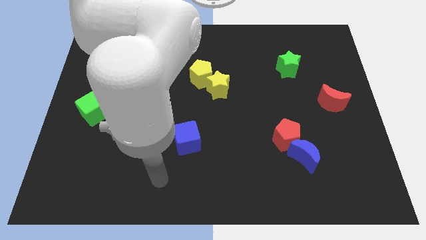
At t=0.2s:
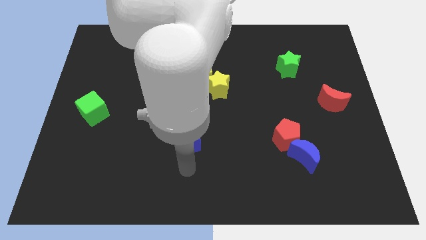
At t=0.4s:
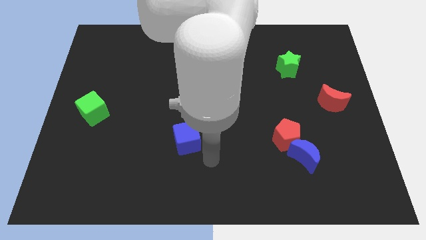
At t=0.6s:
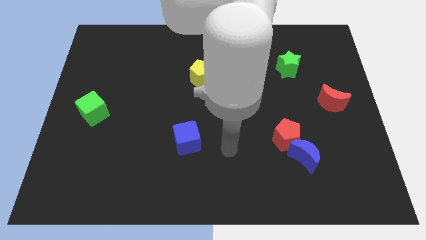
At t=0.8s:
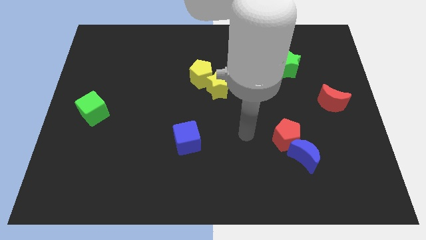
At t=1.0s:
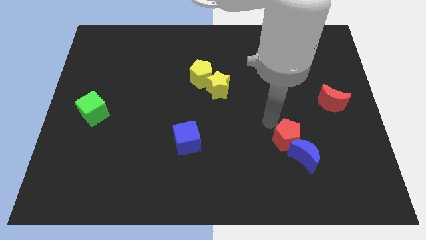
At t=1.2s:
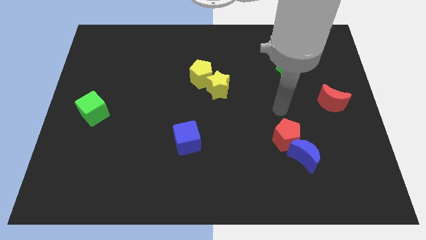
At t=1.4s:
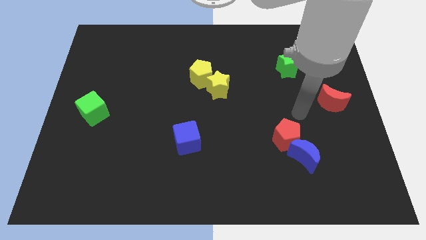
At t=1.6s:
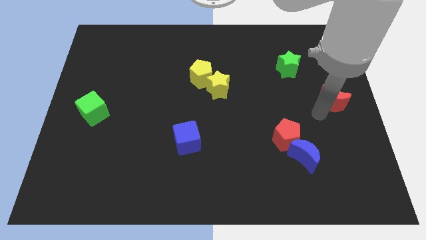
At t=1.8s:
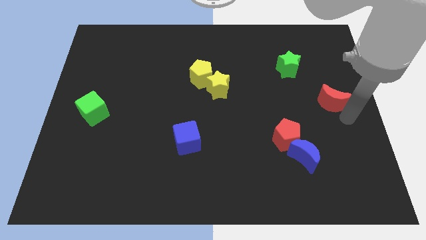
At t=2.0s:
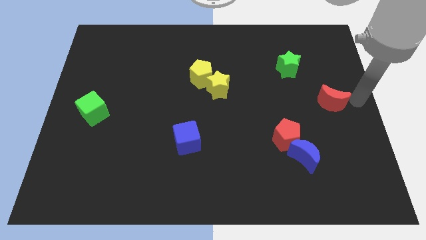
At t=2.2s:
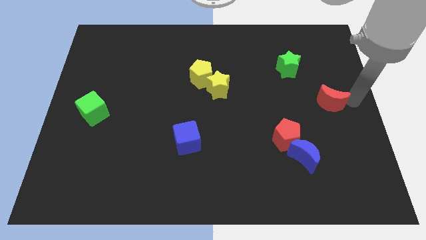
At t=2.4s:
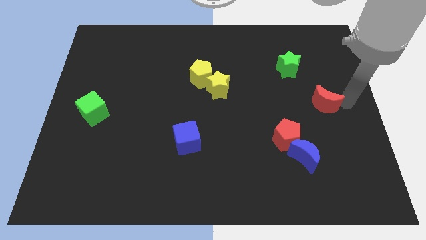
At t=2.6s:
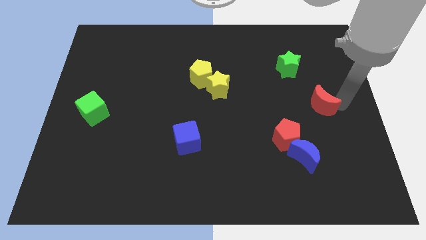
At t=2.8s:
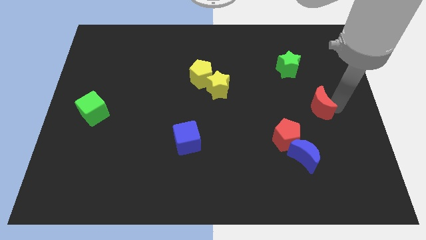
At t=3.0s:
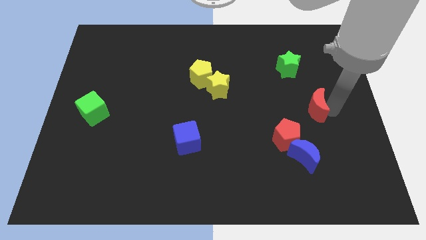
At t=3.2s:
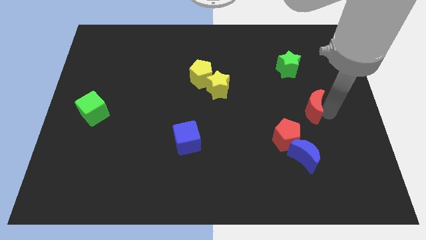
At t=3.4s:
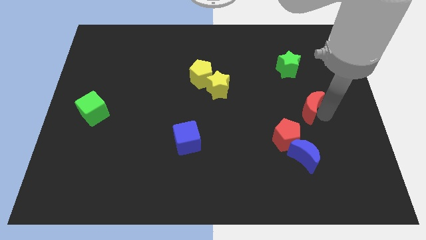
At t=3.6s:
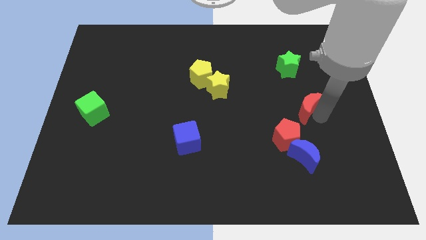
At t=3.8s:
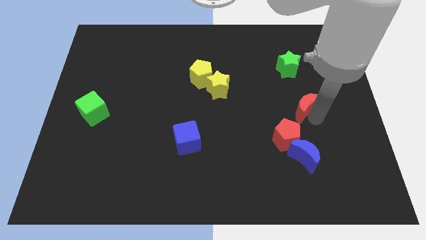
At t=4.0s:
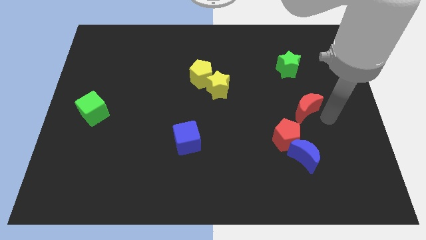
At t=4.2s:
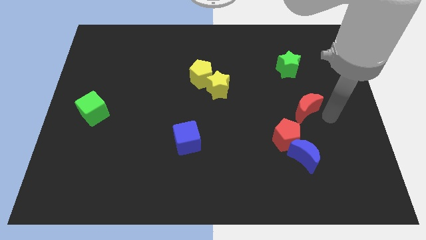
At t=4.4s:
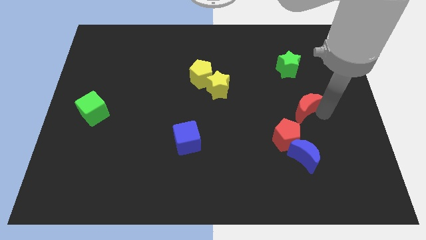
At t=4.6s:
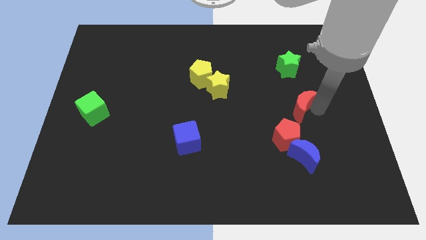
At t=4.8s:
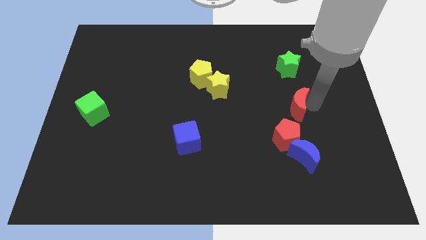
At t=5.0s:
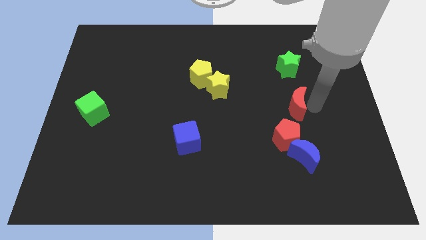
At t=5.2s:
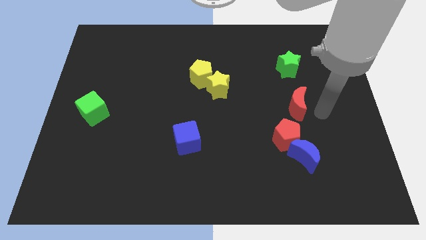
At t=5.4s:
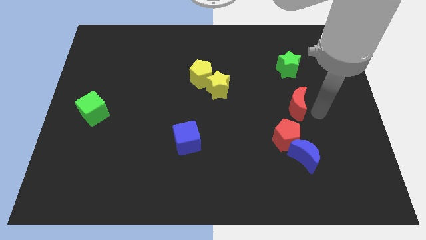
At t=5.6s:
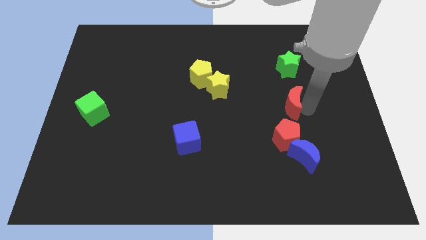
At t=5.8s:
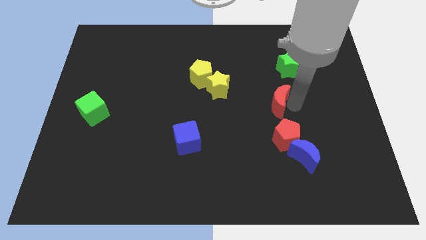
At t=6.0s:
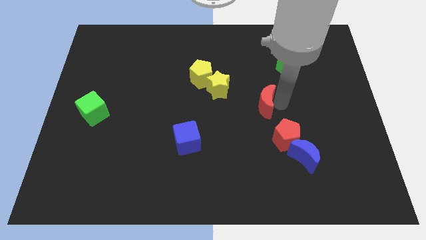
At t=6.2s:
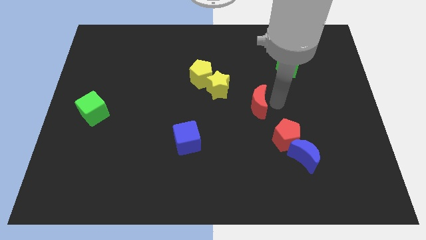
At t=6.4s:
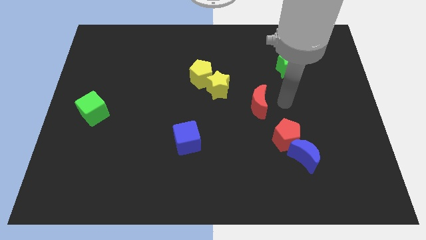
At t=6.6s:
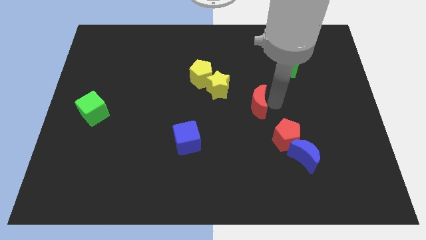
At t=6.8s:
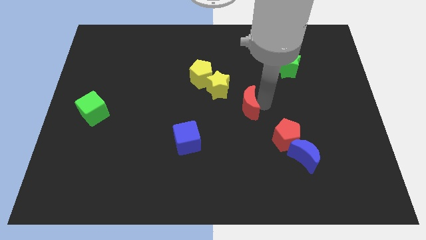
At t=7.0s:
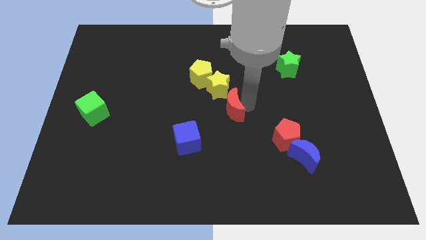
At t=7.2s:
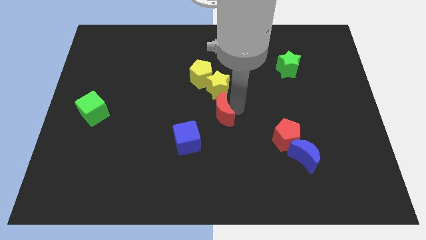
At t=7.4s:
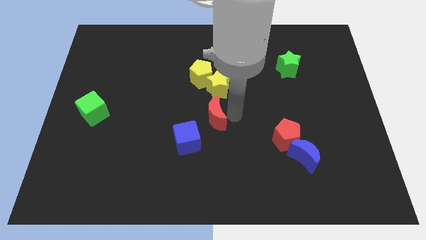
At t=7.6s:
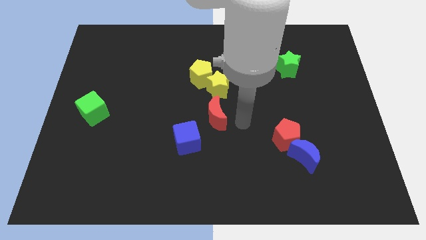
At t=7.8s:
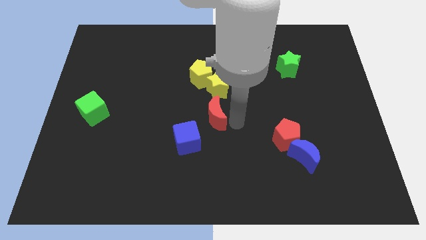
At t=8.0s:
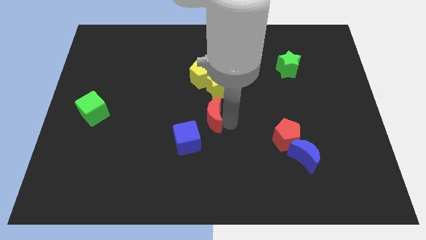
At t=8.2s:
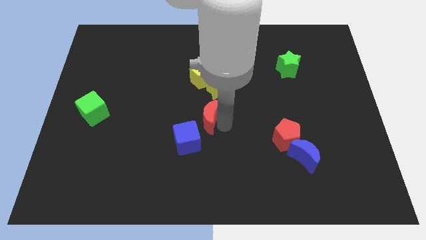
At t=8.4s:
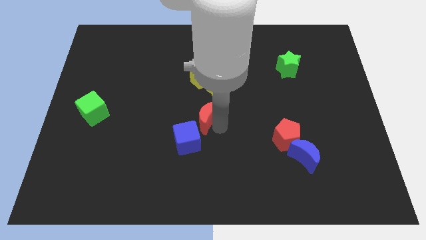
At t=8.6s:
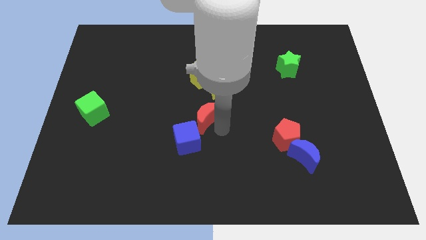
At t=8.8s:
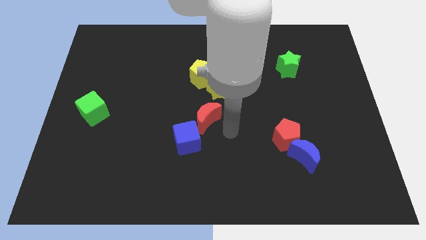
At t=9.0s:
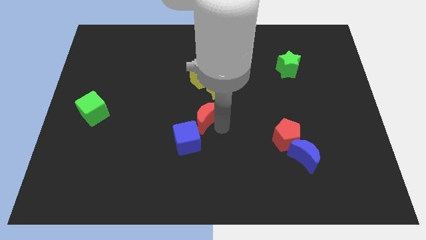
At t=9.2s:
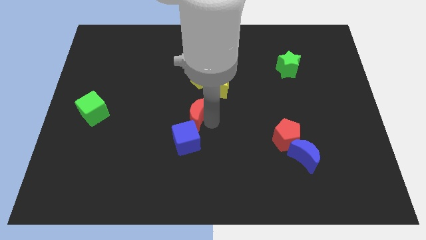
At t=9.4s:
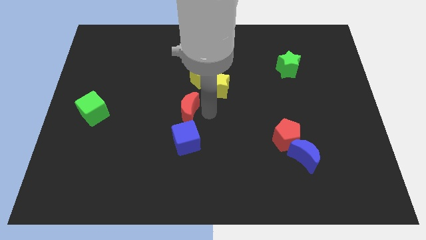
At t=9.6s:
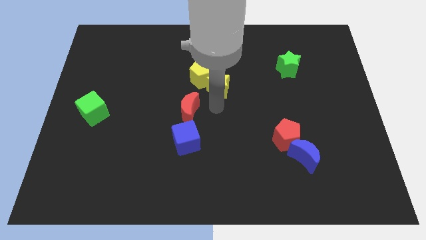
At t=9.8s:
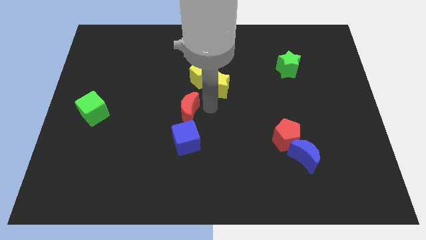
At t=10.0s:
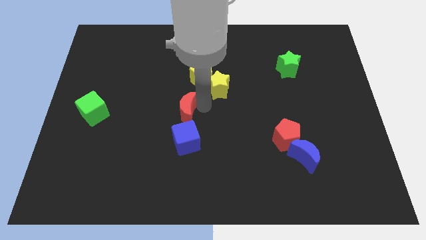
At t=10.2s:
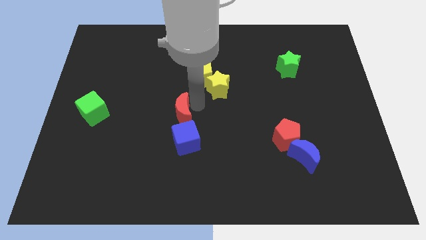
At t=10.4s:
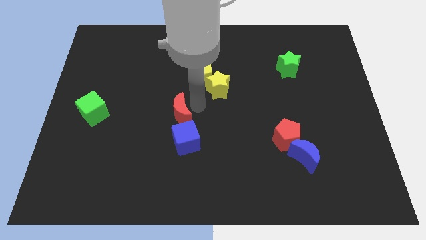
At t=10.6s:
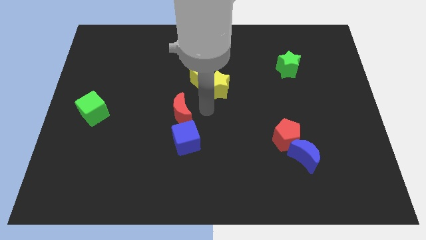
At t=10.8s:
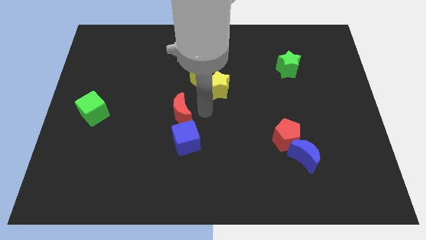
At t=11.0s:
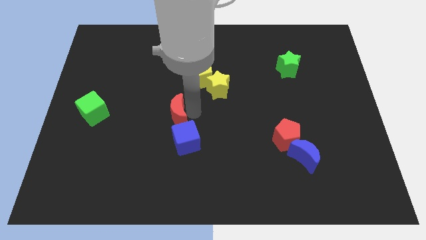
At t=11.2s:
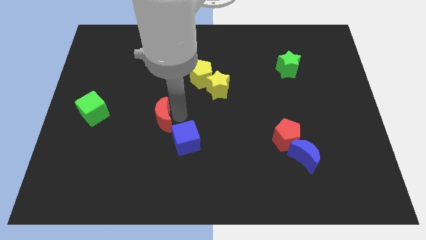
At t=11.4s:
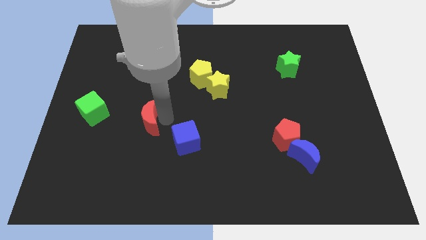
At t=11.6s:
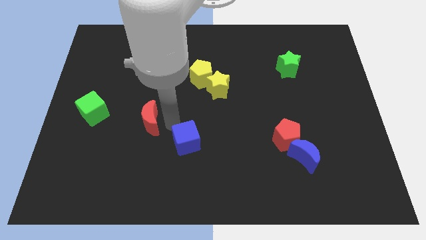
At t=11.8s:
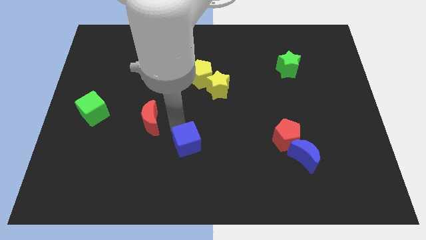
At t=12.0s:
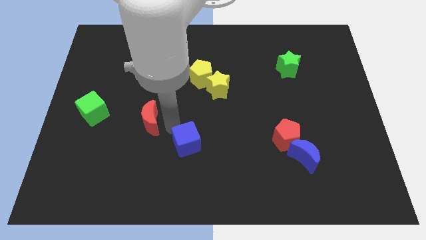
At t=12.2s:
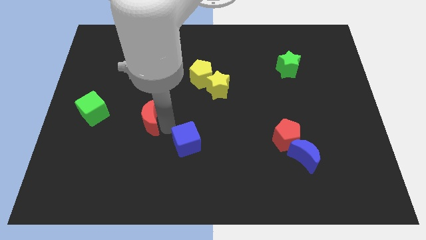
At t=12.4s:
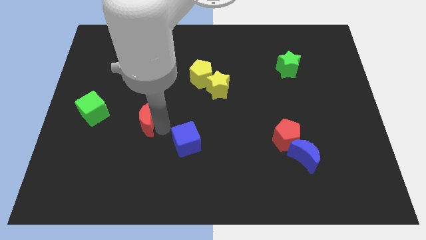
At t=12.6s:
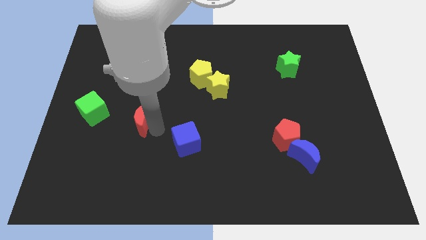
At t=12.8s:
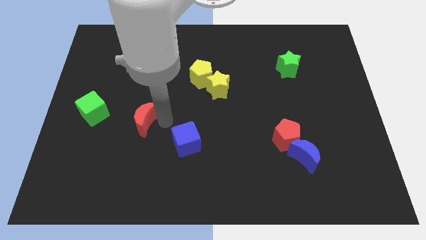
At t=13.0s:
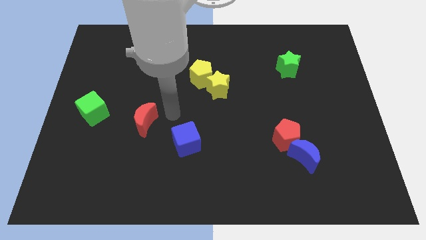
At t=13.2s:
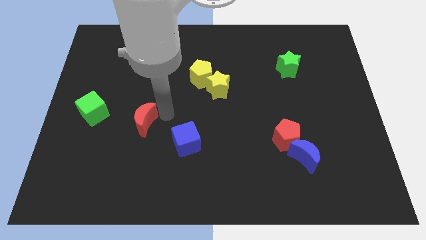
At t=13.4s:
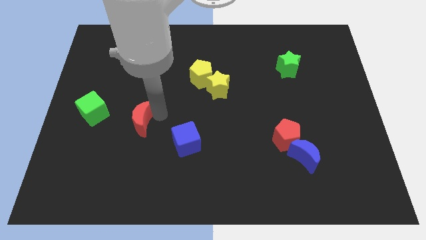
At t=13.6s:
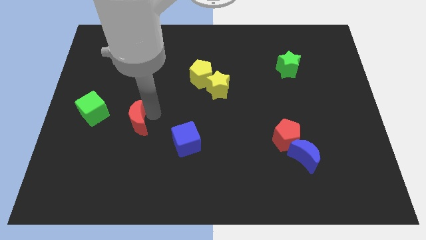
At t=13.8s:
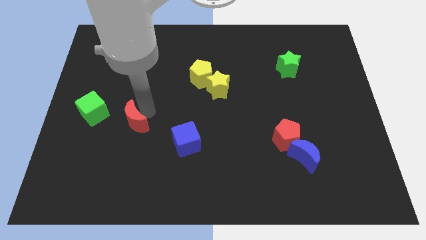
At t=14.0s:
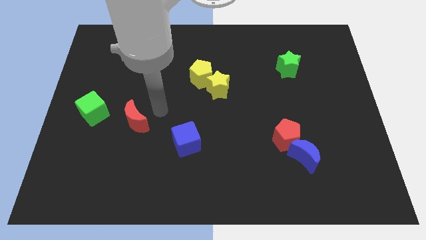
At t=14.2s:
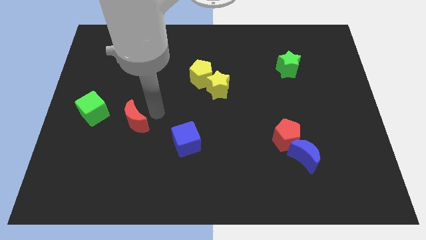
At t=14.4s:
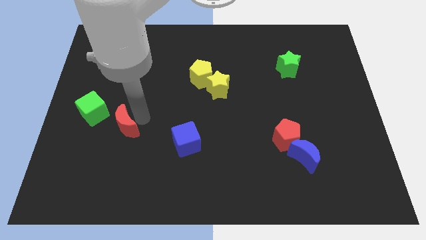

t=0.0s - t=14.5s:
push the red moon diagonally down and to the right of the green cube
